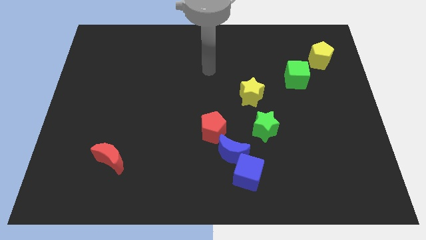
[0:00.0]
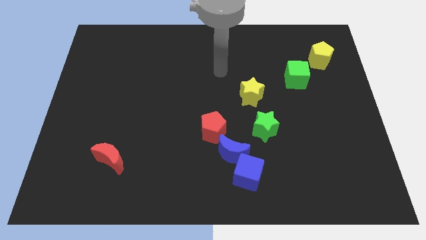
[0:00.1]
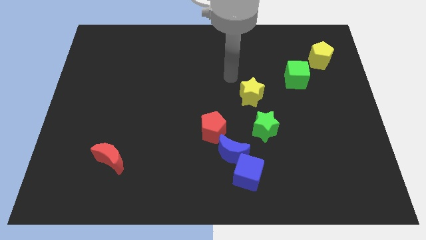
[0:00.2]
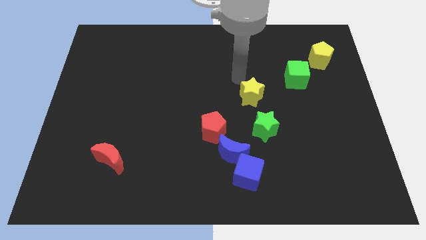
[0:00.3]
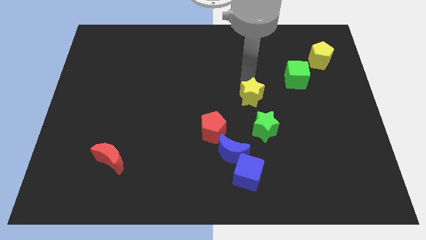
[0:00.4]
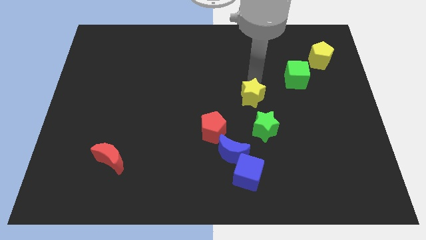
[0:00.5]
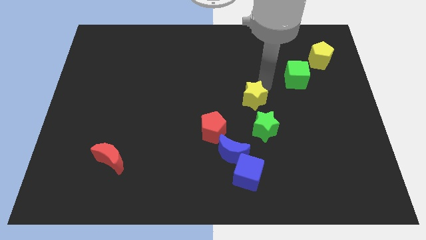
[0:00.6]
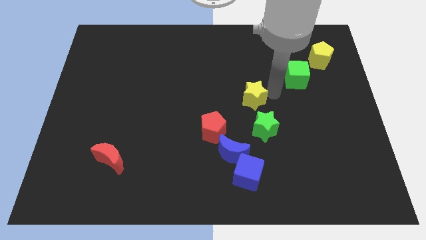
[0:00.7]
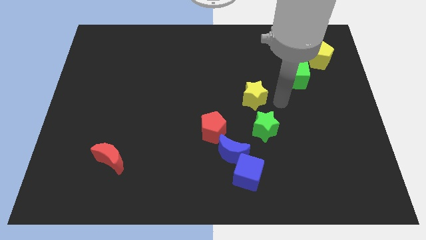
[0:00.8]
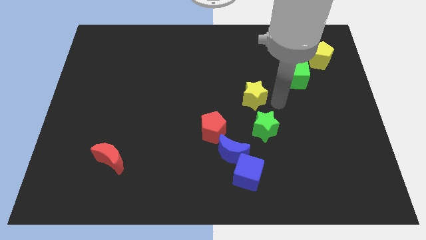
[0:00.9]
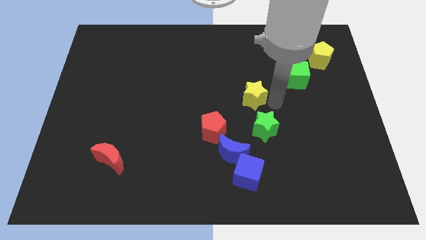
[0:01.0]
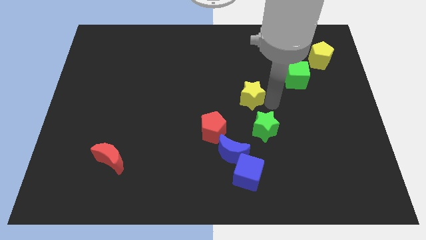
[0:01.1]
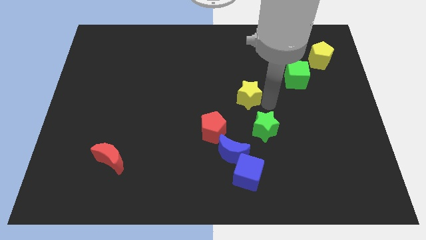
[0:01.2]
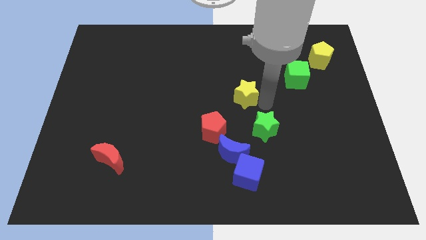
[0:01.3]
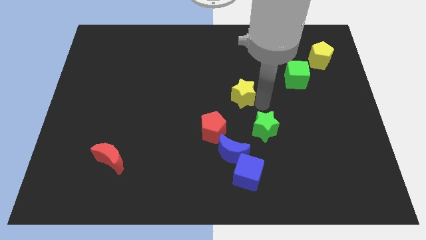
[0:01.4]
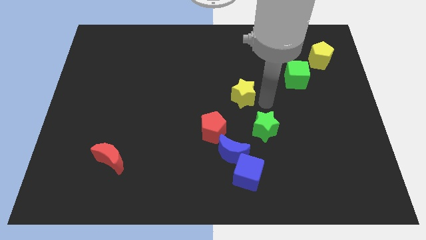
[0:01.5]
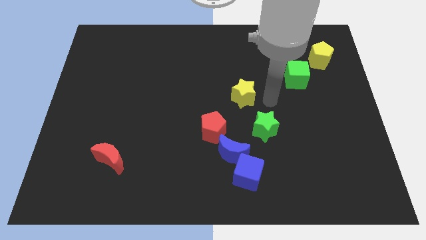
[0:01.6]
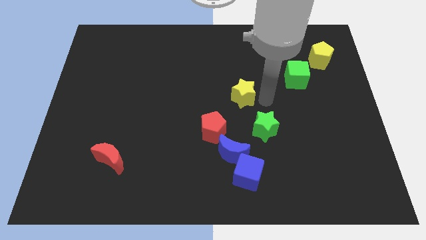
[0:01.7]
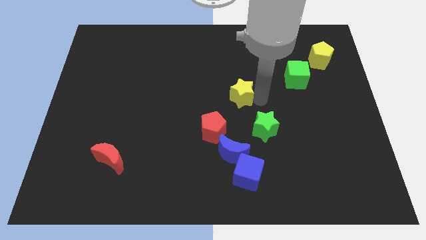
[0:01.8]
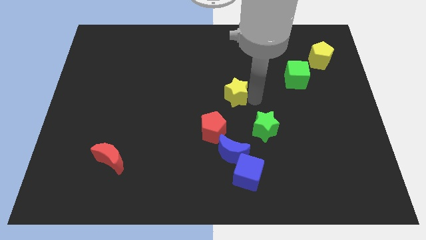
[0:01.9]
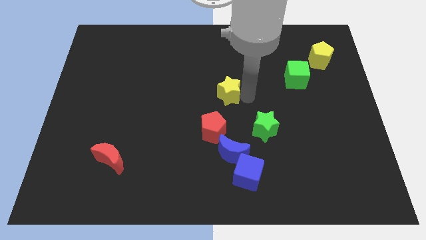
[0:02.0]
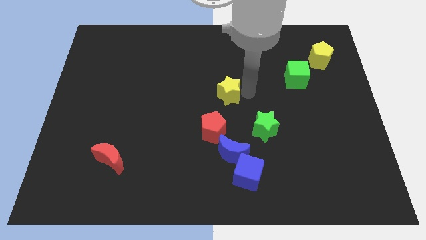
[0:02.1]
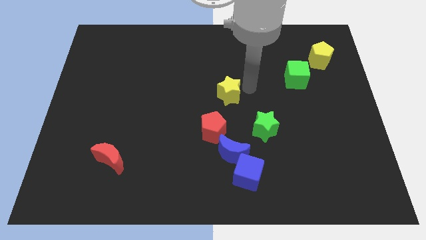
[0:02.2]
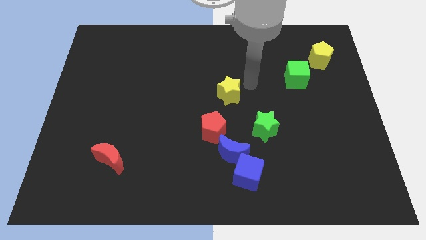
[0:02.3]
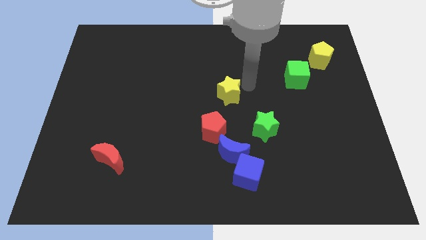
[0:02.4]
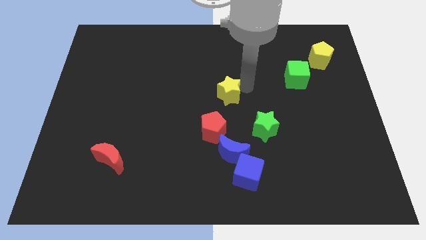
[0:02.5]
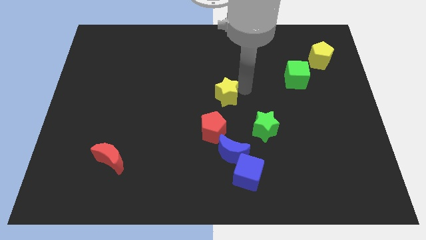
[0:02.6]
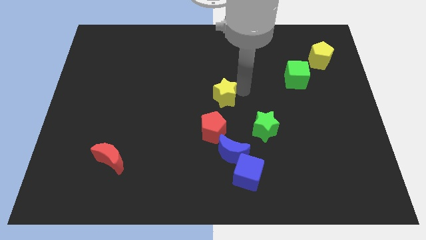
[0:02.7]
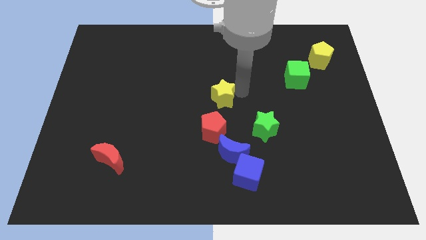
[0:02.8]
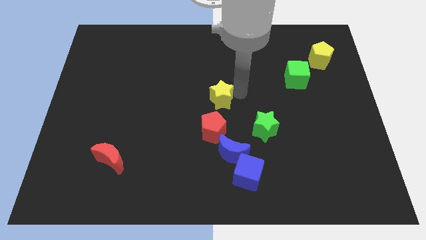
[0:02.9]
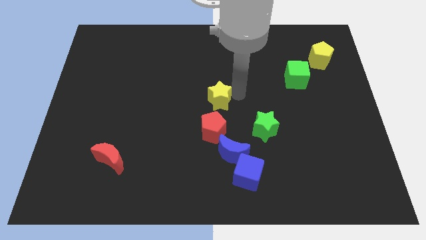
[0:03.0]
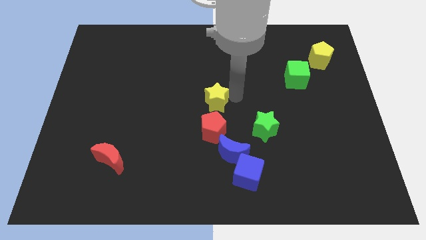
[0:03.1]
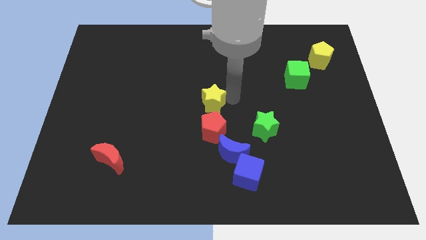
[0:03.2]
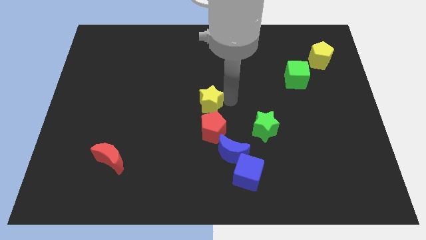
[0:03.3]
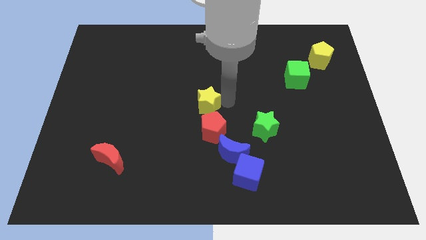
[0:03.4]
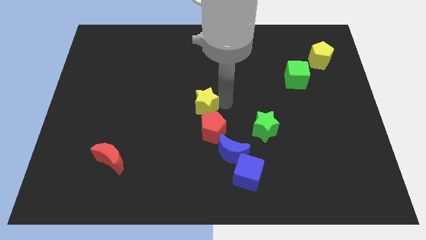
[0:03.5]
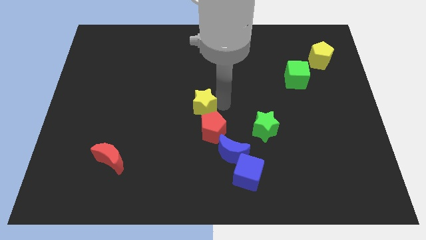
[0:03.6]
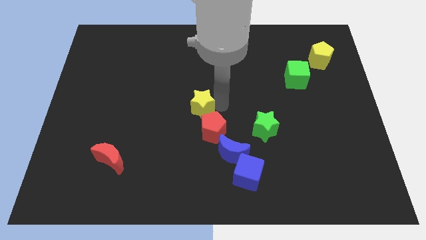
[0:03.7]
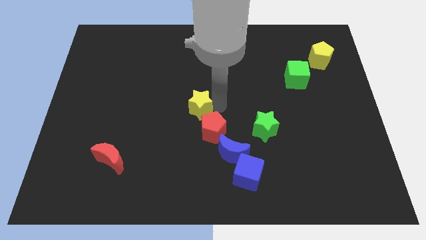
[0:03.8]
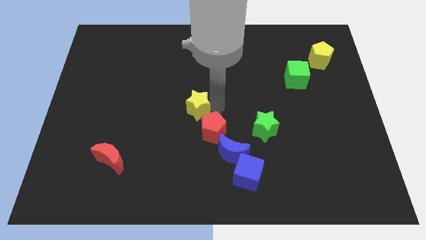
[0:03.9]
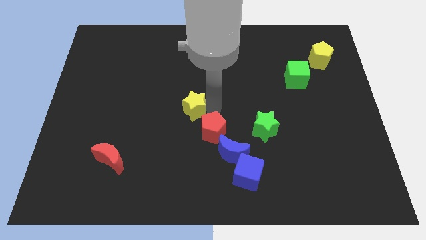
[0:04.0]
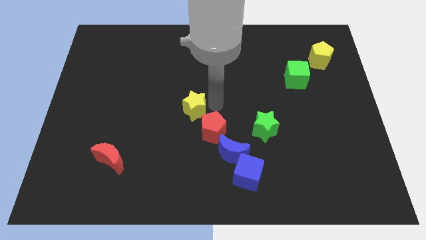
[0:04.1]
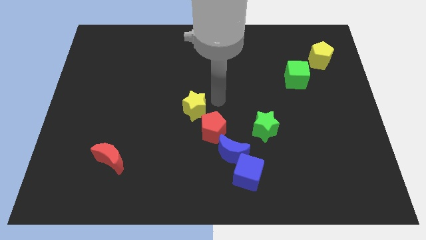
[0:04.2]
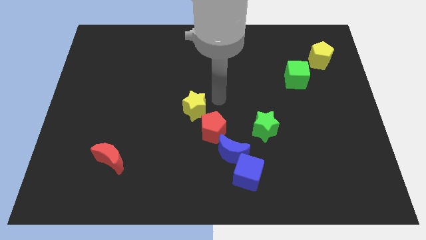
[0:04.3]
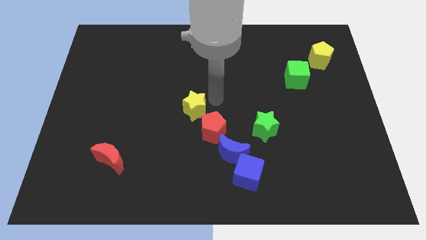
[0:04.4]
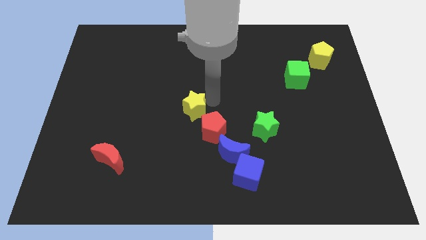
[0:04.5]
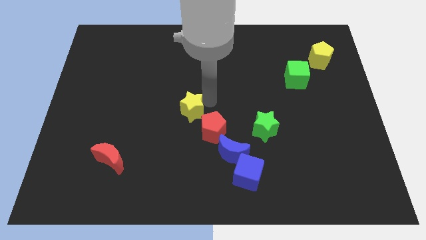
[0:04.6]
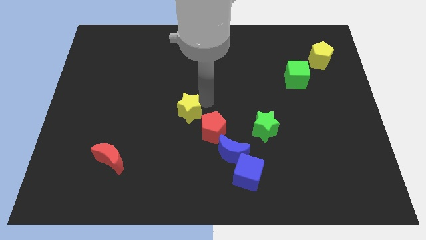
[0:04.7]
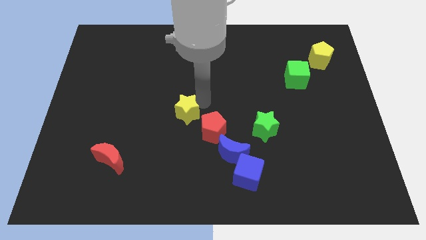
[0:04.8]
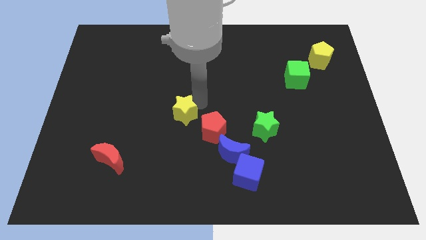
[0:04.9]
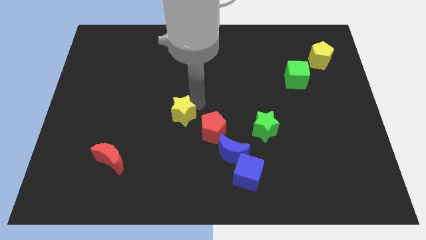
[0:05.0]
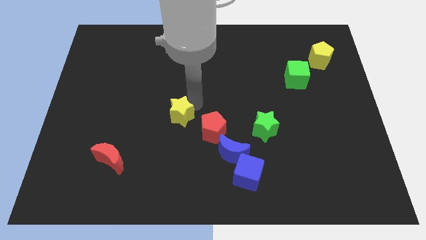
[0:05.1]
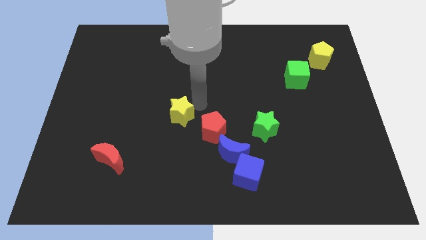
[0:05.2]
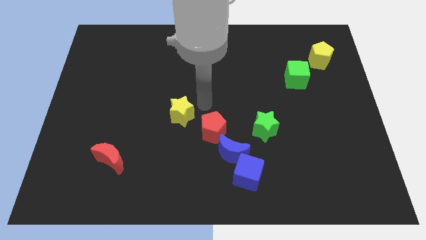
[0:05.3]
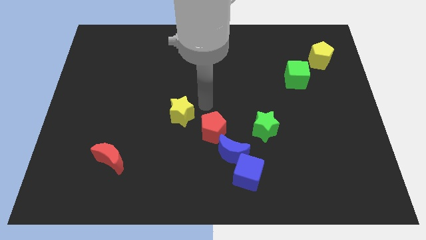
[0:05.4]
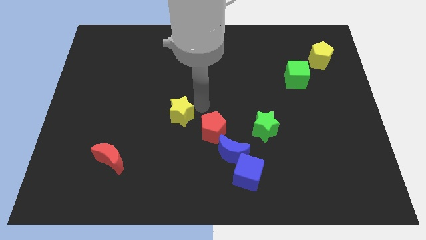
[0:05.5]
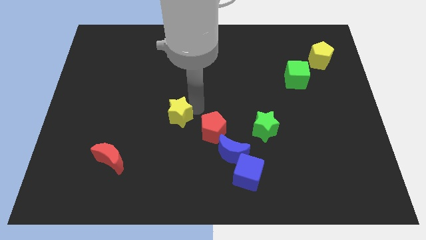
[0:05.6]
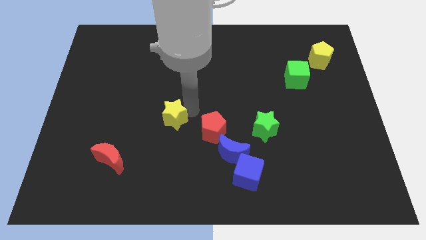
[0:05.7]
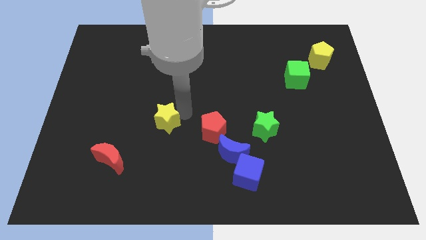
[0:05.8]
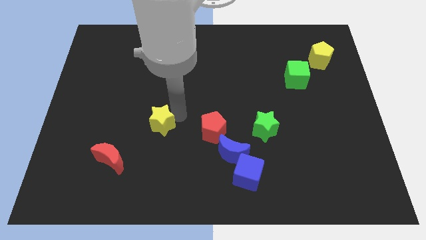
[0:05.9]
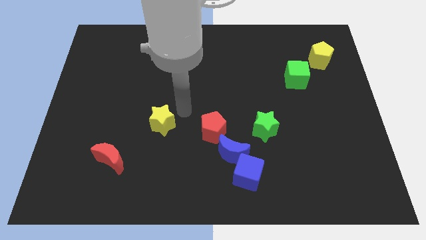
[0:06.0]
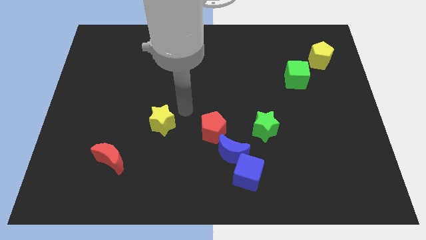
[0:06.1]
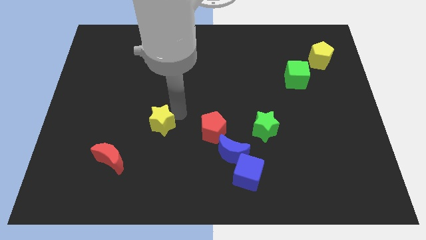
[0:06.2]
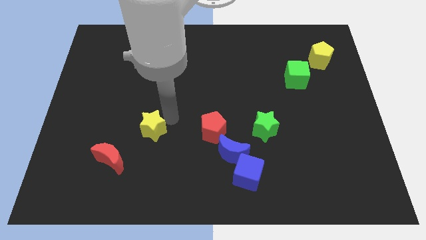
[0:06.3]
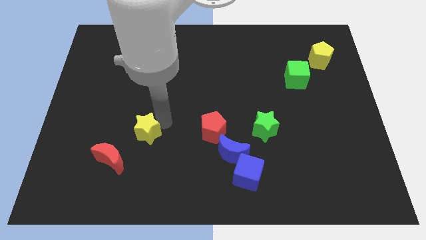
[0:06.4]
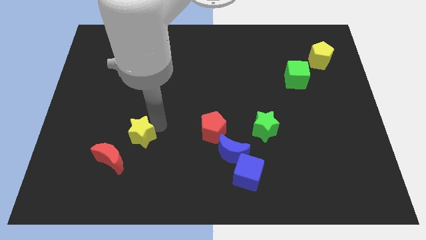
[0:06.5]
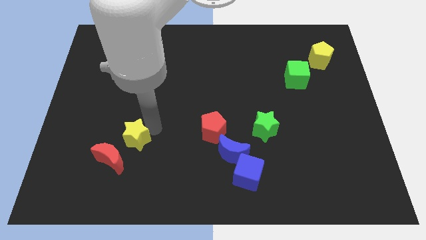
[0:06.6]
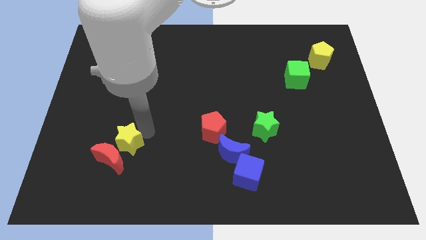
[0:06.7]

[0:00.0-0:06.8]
put the yellow star close to the red moon

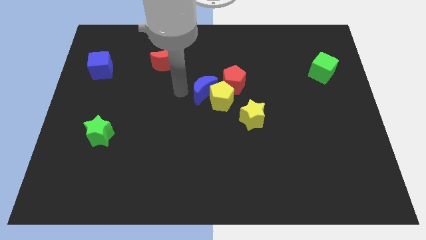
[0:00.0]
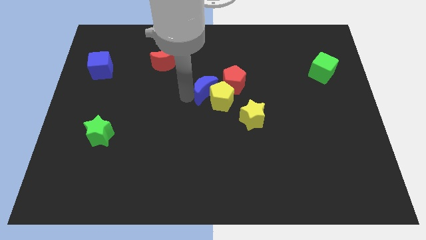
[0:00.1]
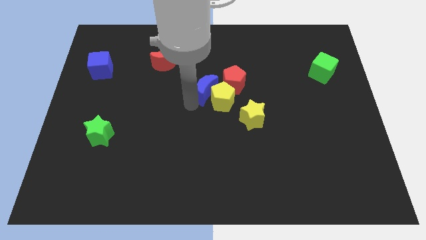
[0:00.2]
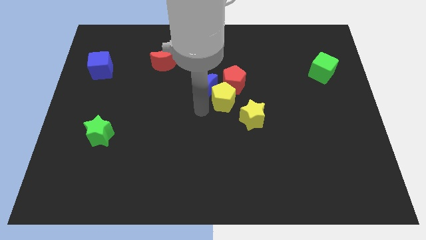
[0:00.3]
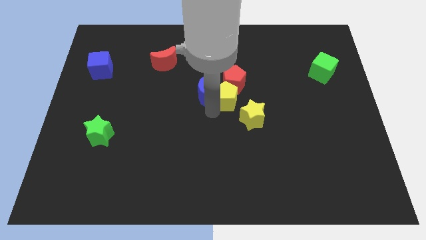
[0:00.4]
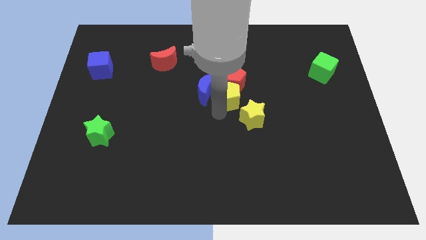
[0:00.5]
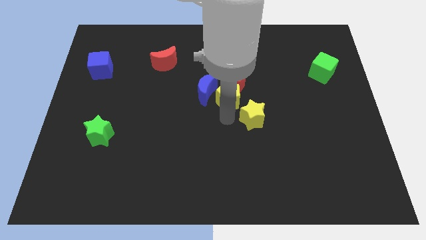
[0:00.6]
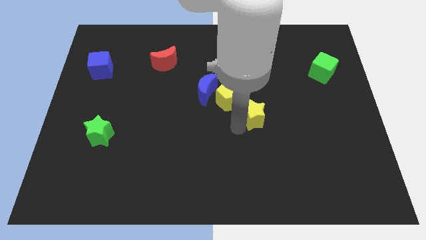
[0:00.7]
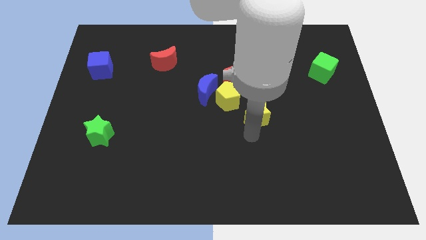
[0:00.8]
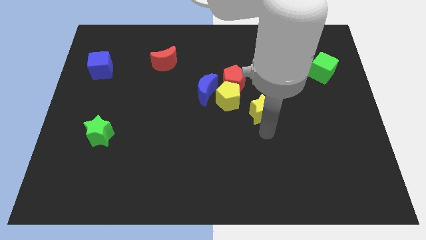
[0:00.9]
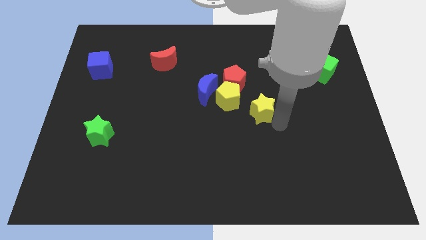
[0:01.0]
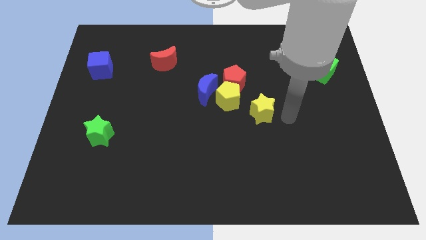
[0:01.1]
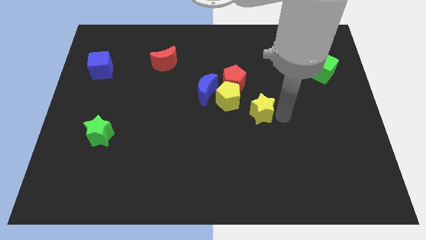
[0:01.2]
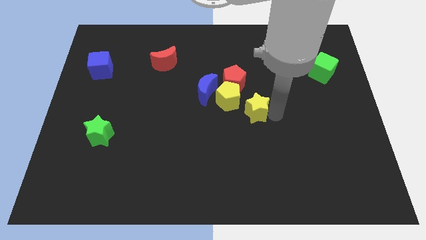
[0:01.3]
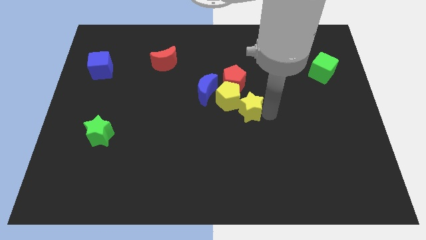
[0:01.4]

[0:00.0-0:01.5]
move the yellow star to the yellow pentagon
